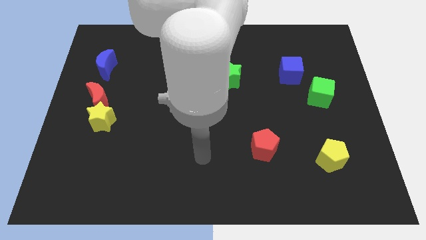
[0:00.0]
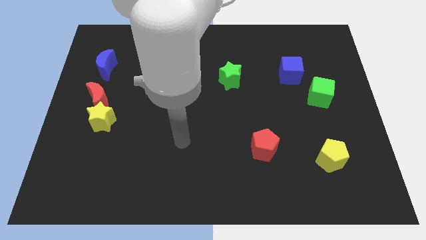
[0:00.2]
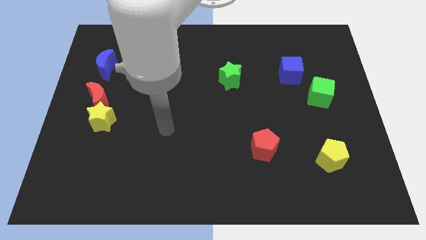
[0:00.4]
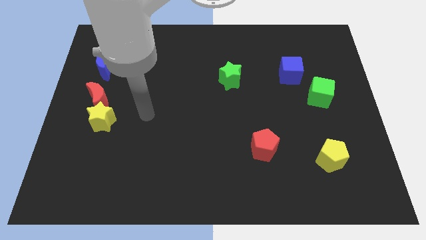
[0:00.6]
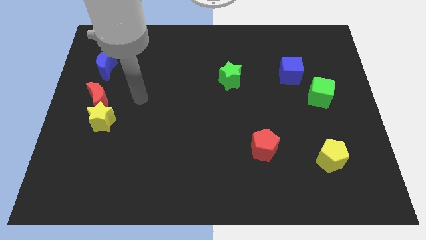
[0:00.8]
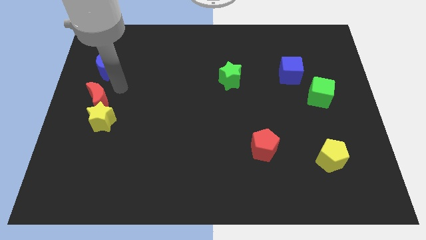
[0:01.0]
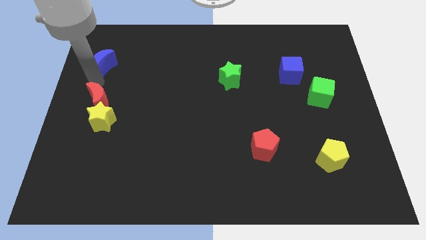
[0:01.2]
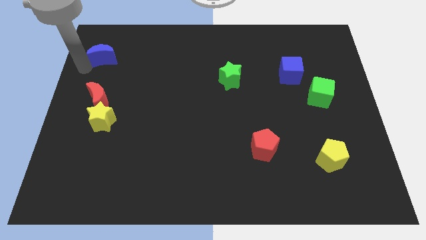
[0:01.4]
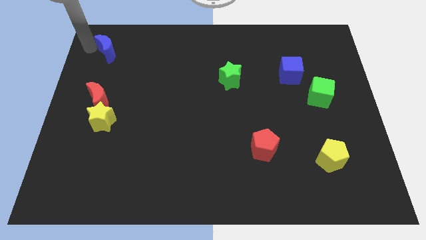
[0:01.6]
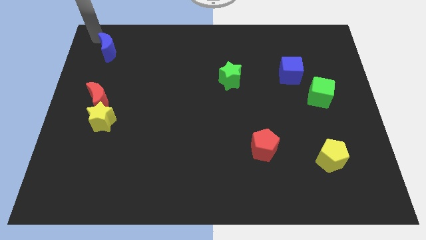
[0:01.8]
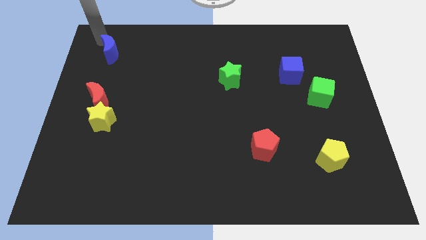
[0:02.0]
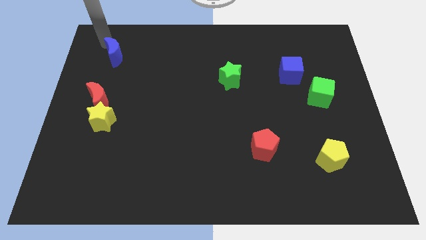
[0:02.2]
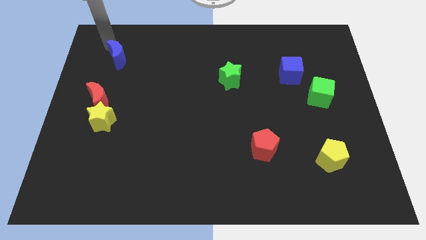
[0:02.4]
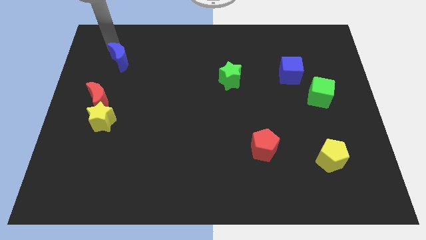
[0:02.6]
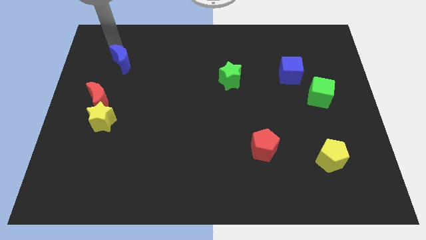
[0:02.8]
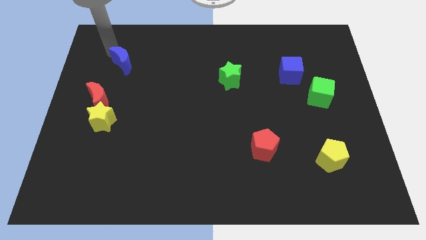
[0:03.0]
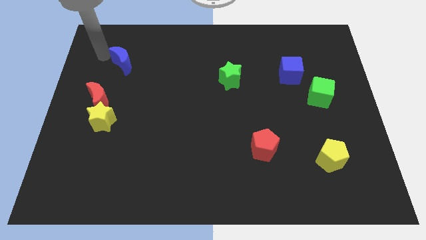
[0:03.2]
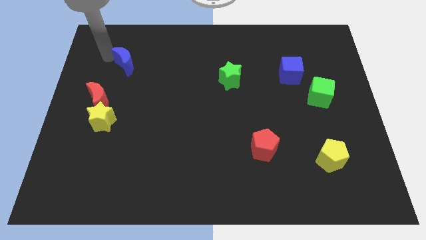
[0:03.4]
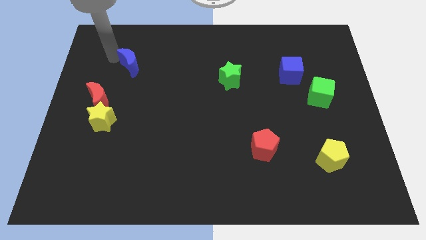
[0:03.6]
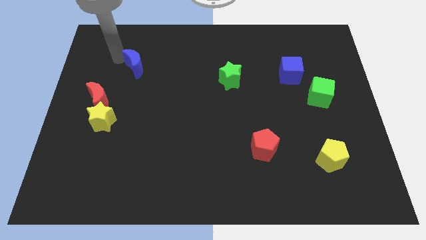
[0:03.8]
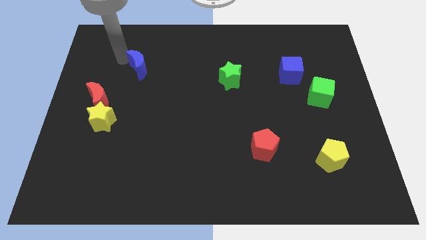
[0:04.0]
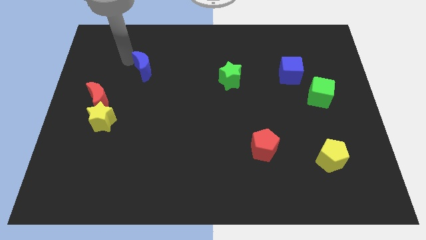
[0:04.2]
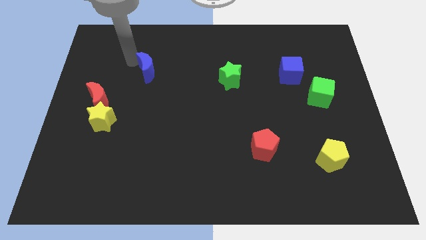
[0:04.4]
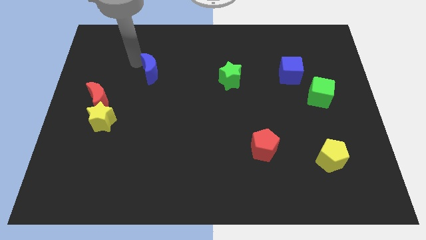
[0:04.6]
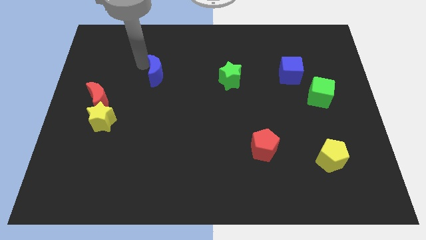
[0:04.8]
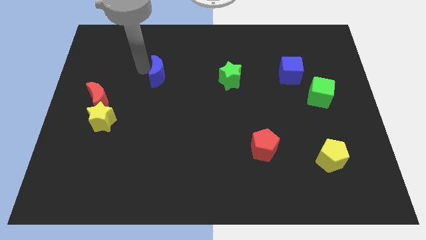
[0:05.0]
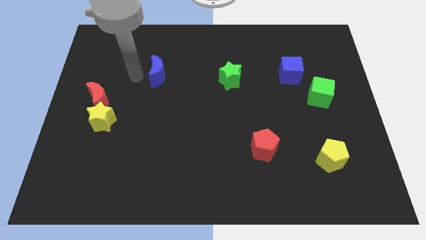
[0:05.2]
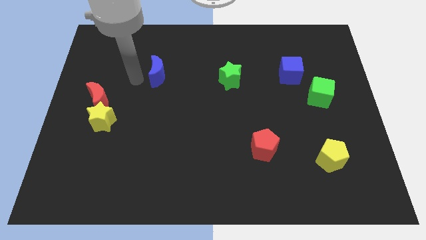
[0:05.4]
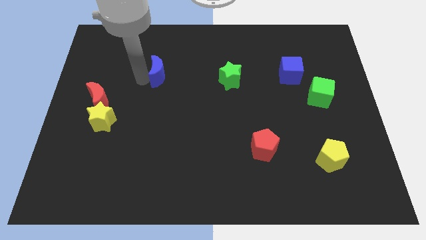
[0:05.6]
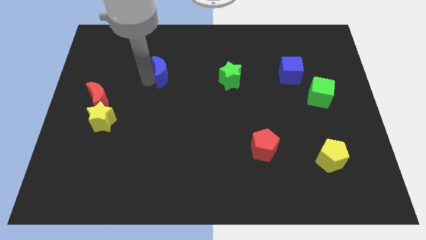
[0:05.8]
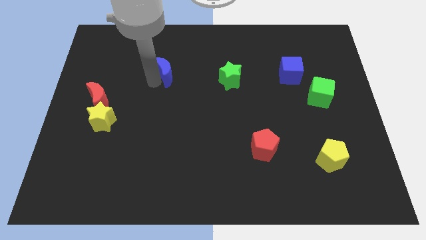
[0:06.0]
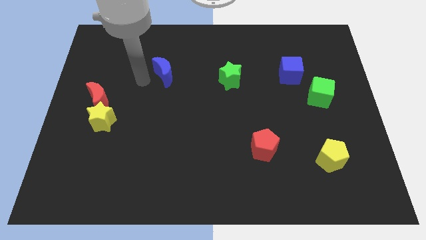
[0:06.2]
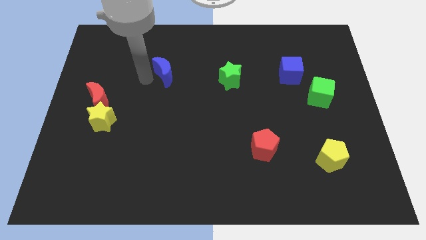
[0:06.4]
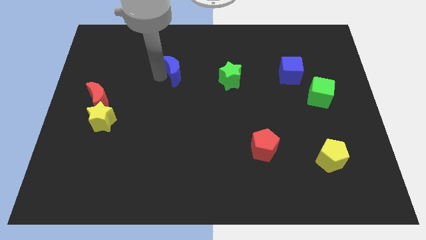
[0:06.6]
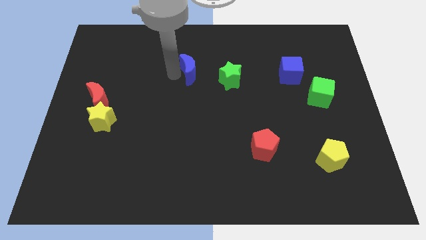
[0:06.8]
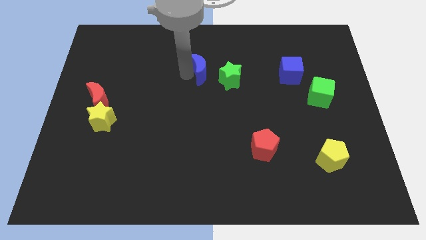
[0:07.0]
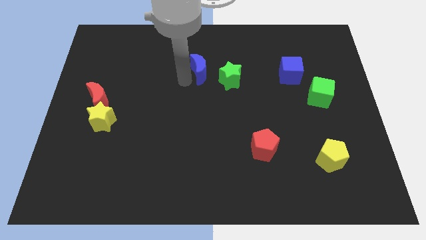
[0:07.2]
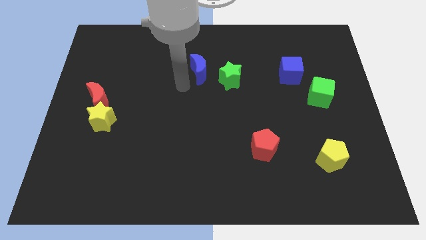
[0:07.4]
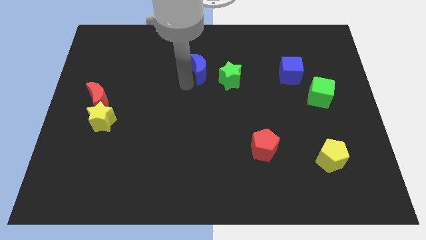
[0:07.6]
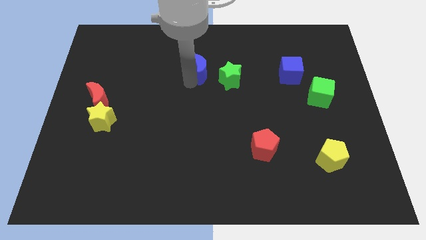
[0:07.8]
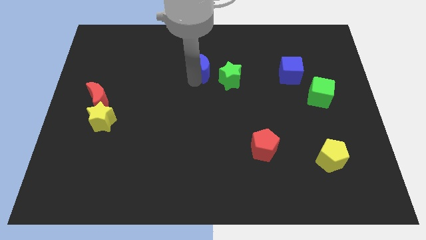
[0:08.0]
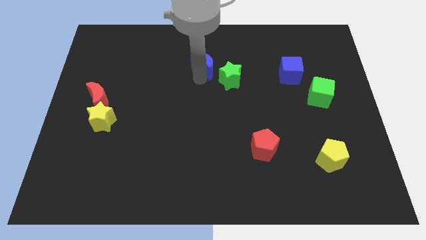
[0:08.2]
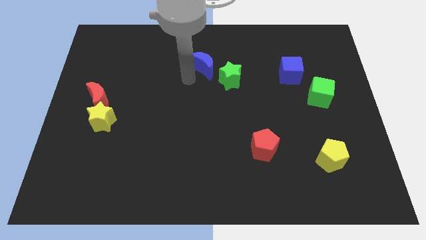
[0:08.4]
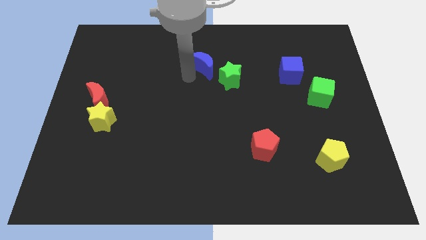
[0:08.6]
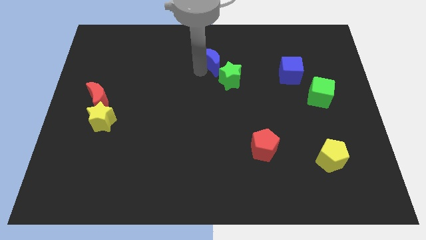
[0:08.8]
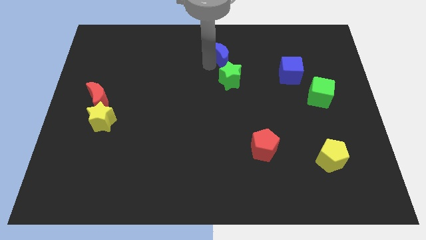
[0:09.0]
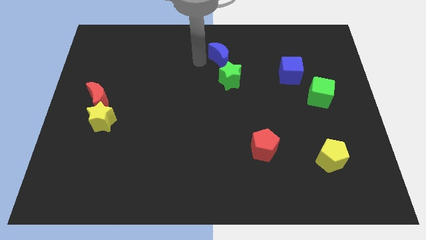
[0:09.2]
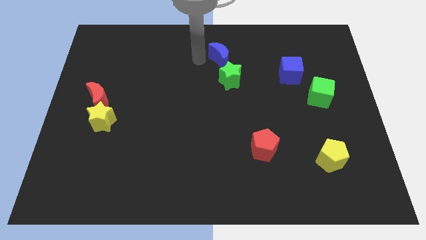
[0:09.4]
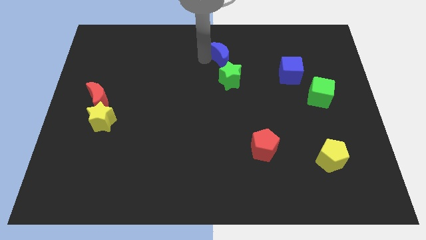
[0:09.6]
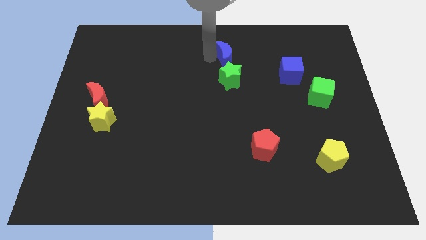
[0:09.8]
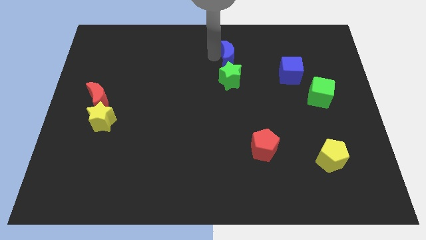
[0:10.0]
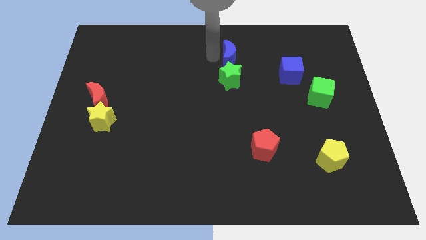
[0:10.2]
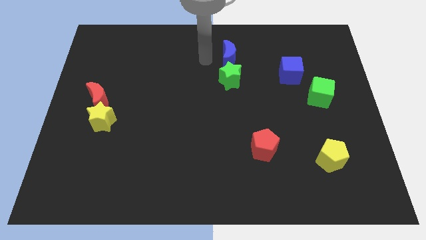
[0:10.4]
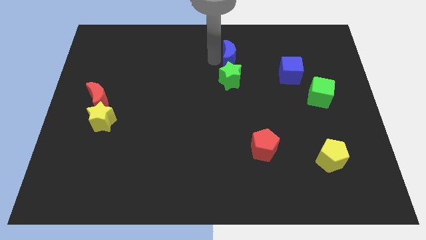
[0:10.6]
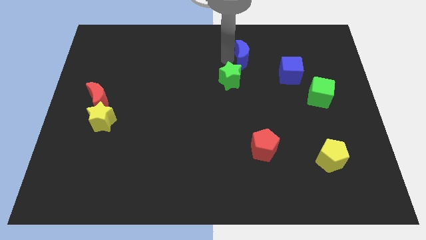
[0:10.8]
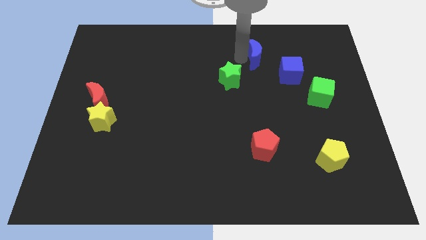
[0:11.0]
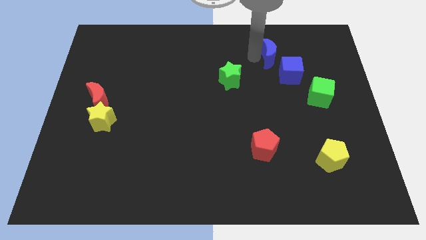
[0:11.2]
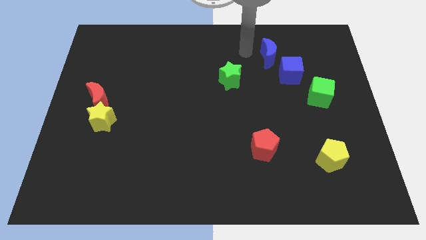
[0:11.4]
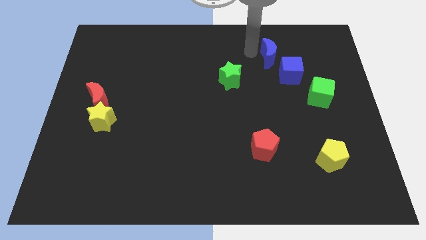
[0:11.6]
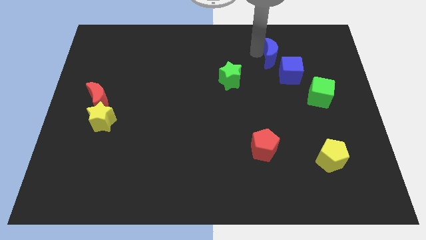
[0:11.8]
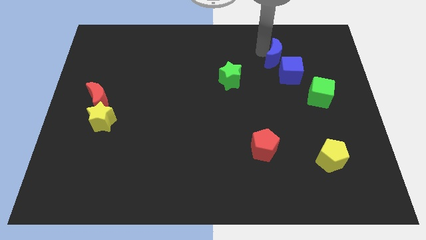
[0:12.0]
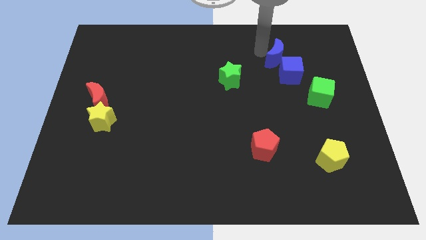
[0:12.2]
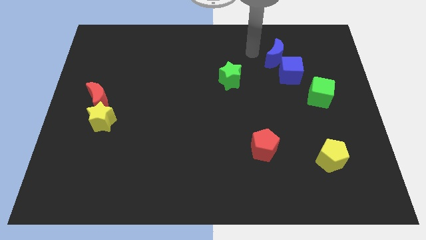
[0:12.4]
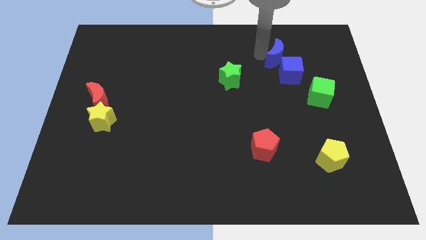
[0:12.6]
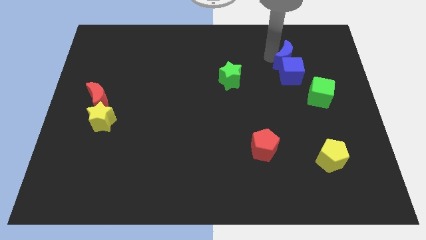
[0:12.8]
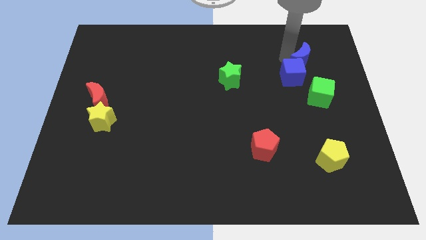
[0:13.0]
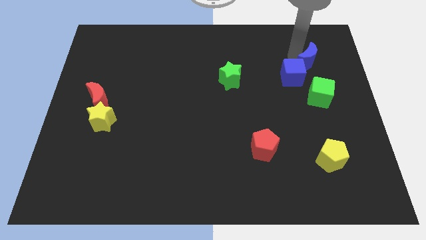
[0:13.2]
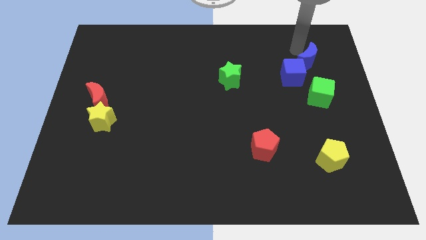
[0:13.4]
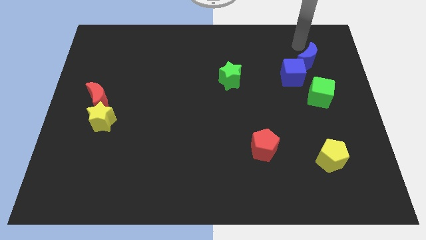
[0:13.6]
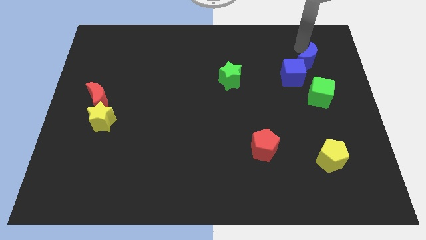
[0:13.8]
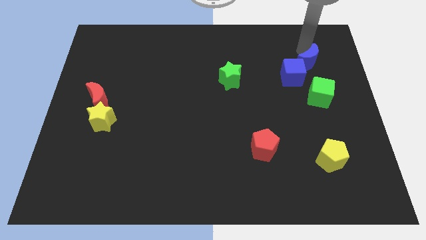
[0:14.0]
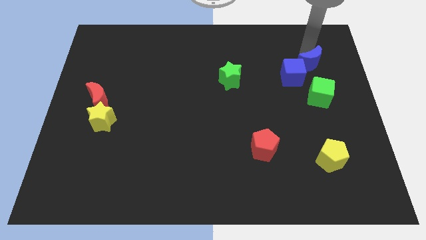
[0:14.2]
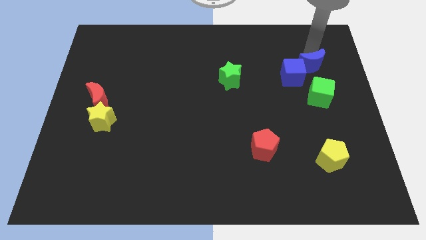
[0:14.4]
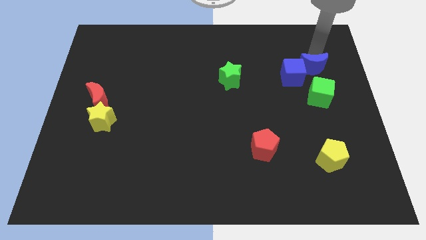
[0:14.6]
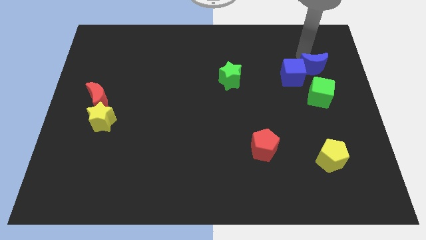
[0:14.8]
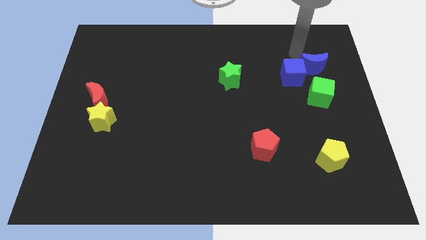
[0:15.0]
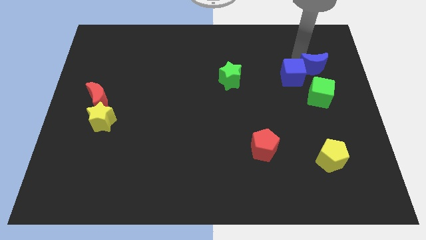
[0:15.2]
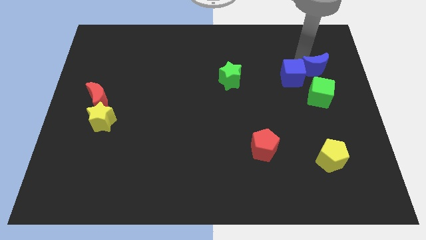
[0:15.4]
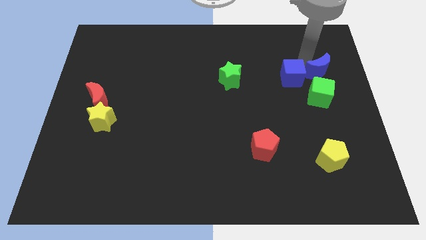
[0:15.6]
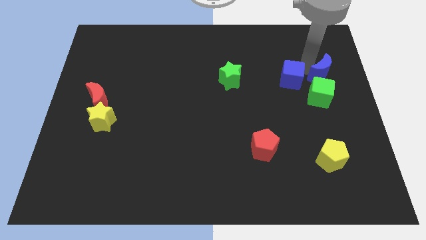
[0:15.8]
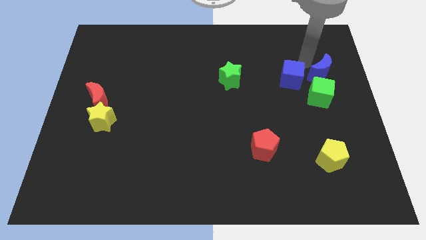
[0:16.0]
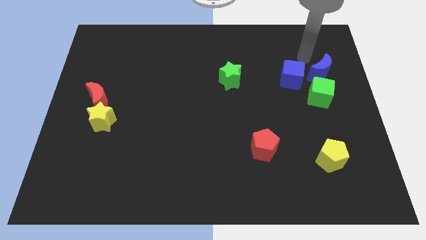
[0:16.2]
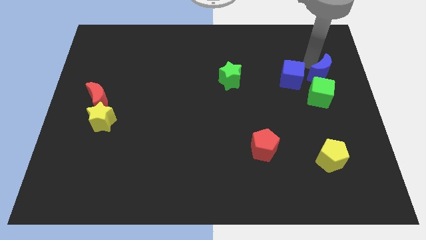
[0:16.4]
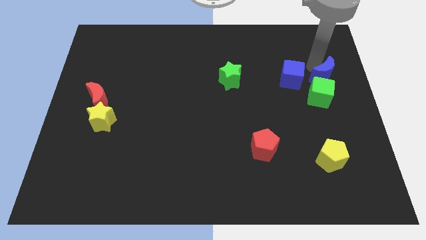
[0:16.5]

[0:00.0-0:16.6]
move the blue moon to the right side
